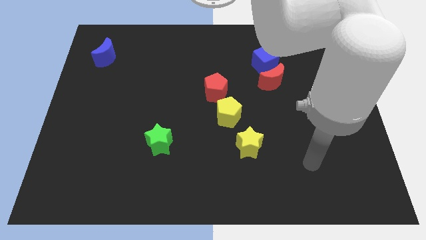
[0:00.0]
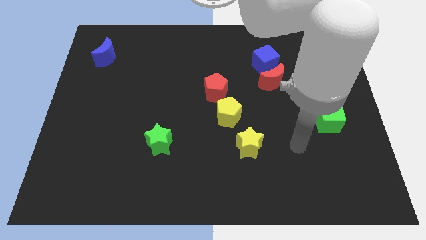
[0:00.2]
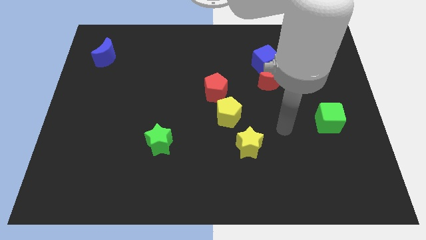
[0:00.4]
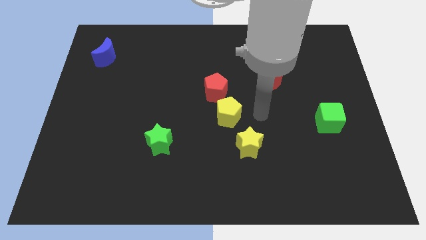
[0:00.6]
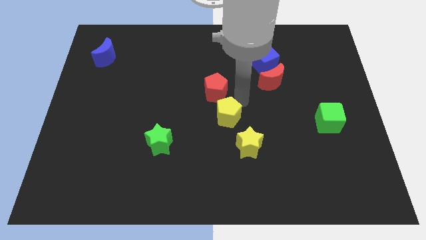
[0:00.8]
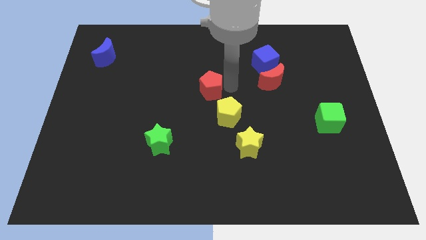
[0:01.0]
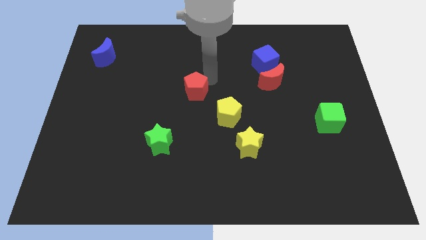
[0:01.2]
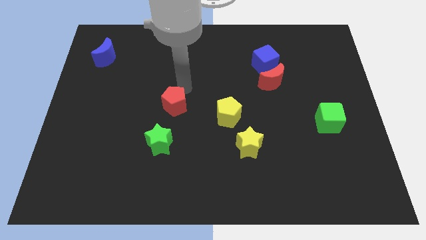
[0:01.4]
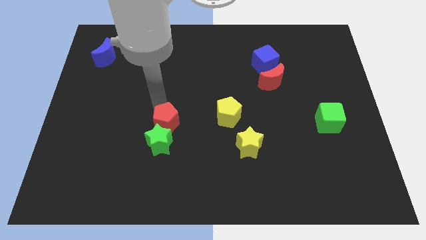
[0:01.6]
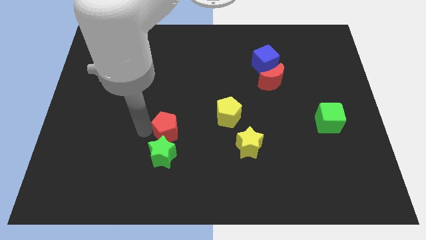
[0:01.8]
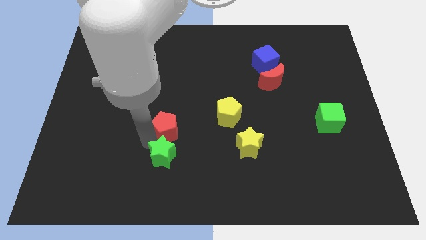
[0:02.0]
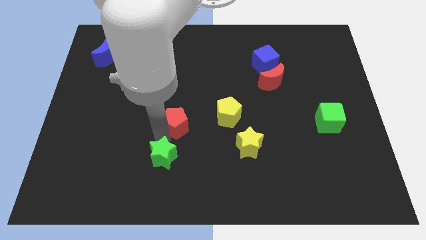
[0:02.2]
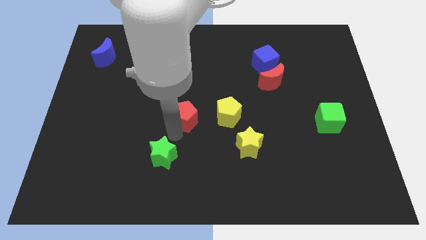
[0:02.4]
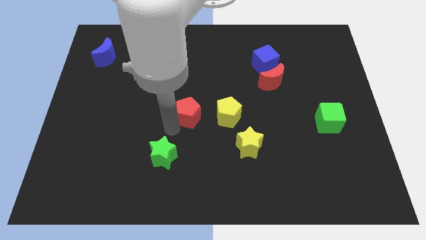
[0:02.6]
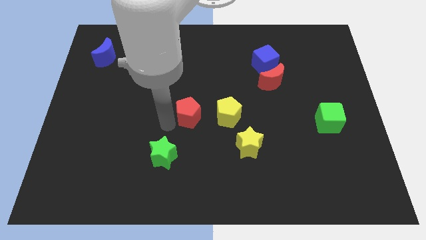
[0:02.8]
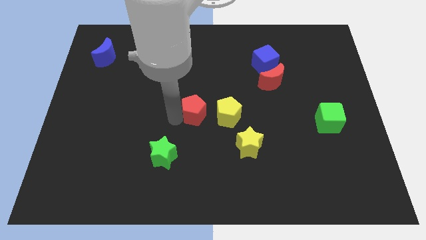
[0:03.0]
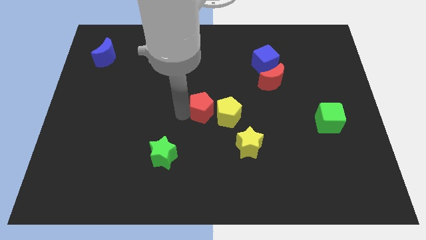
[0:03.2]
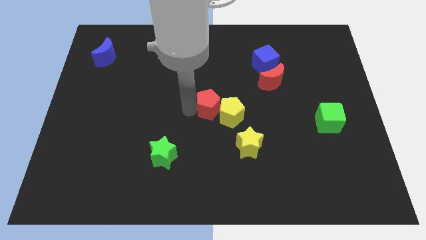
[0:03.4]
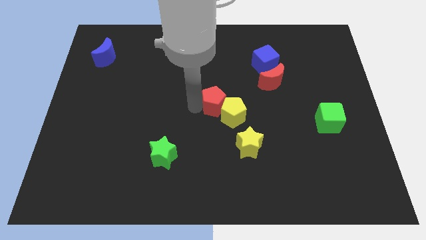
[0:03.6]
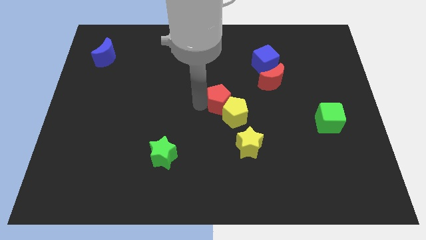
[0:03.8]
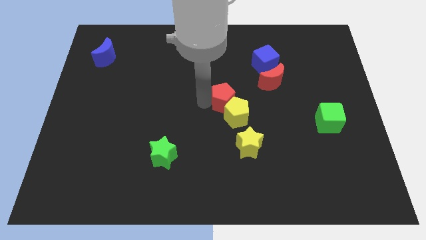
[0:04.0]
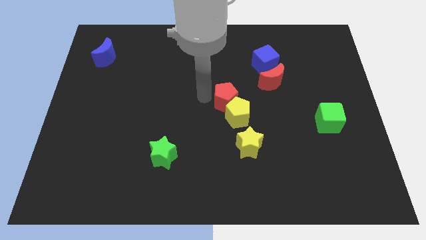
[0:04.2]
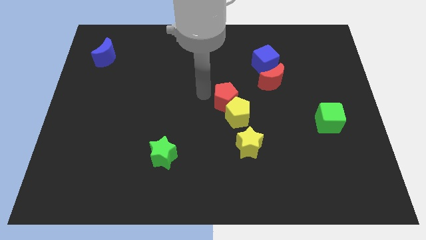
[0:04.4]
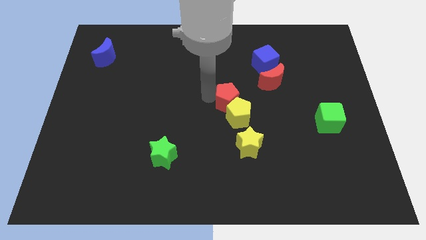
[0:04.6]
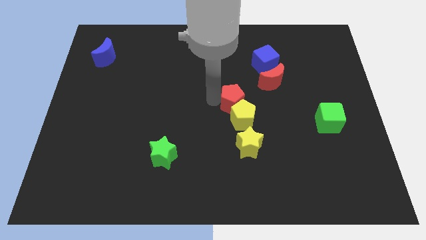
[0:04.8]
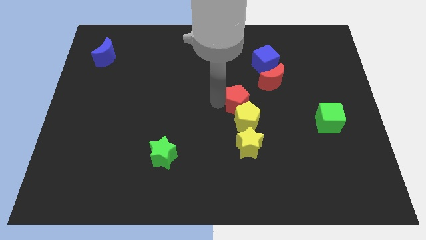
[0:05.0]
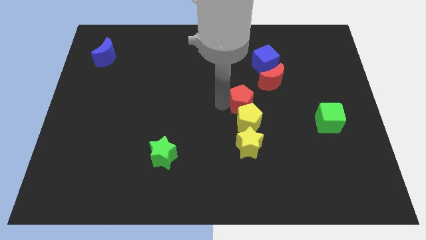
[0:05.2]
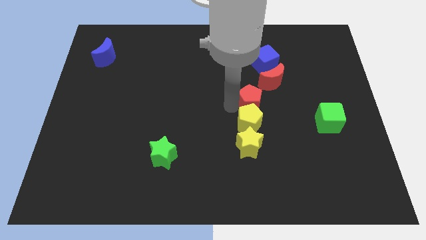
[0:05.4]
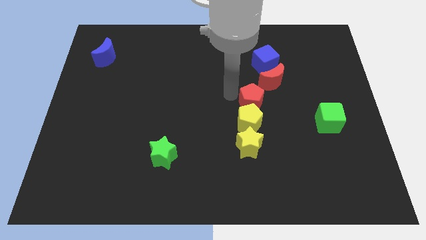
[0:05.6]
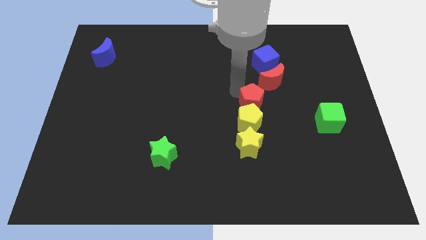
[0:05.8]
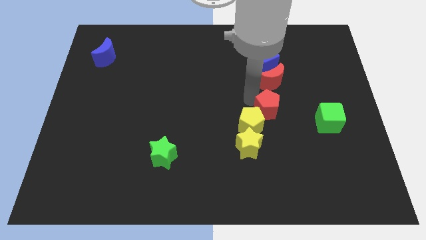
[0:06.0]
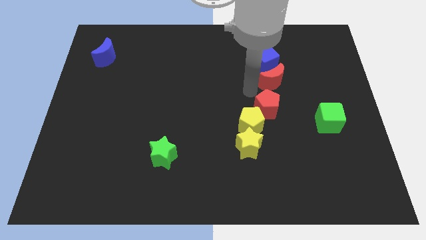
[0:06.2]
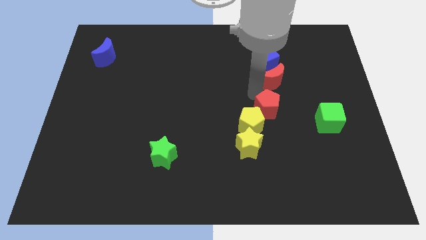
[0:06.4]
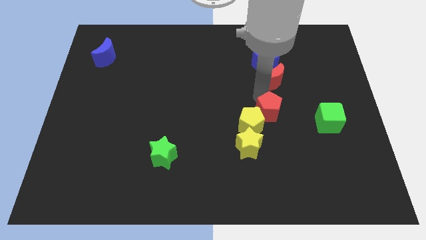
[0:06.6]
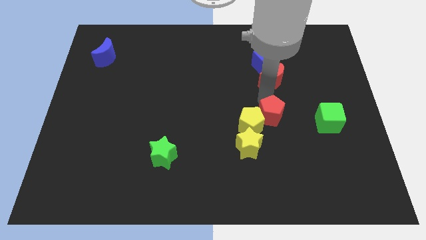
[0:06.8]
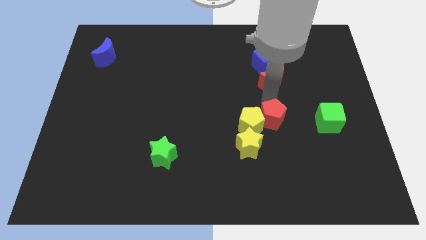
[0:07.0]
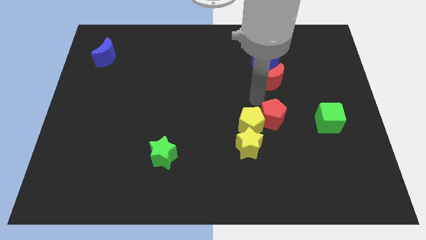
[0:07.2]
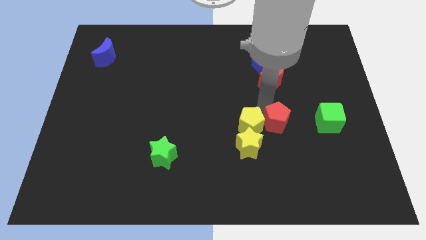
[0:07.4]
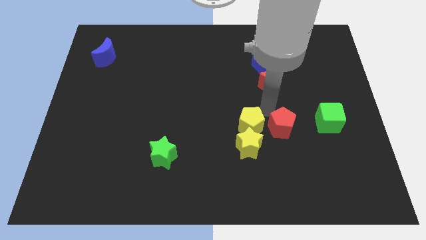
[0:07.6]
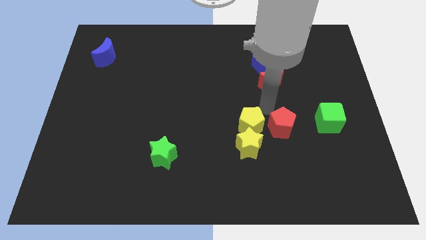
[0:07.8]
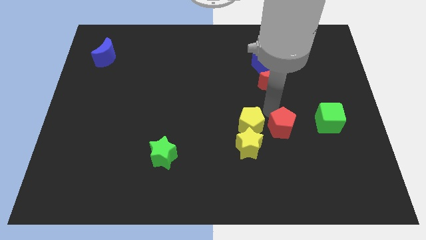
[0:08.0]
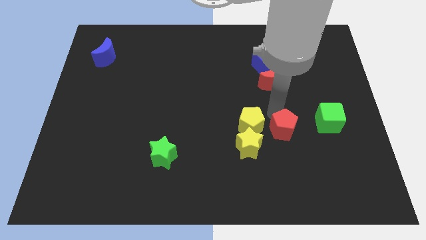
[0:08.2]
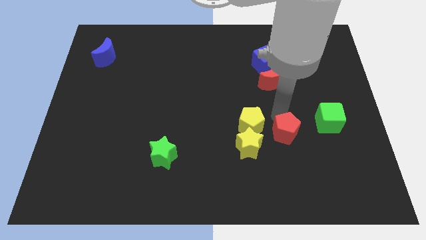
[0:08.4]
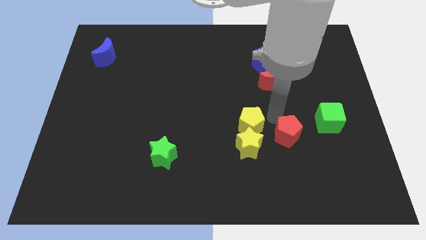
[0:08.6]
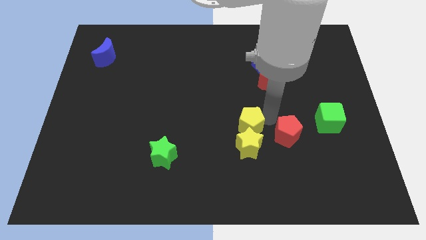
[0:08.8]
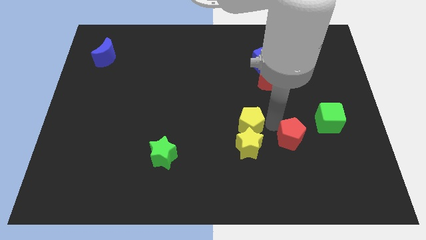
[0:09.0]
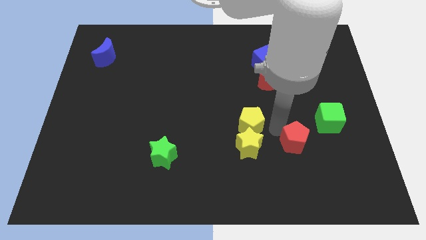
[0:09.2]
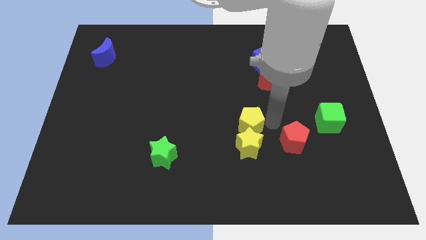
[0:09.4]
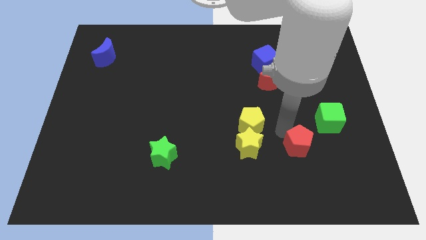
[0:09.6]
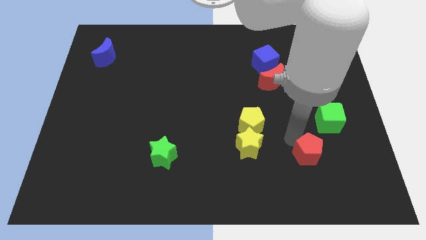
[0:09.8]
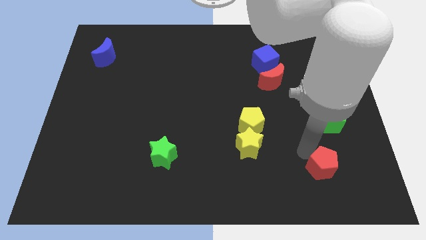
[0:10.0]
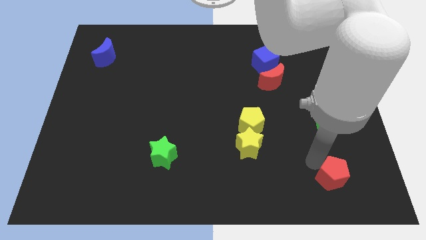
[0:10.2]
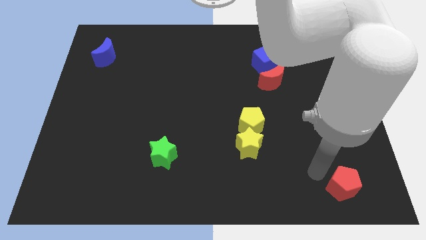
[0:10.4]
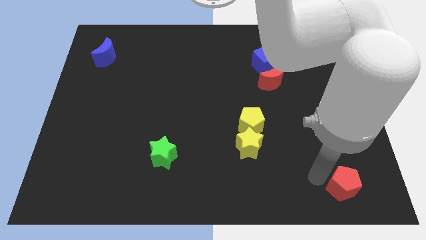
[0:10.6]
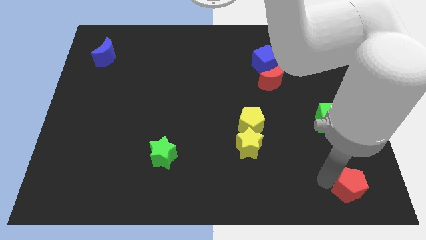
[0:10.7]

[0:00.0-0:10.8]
put the red pentagon to the bottom right of the board

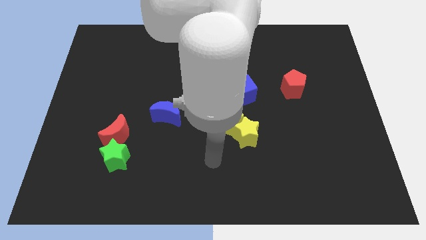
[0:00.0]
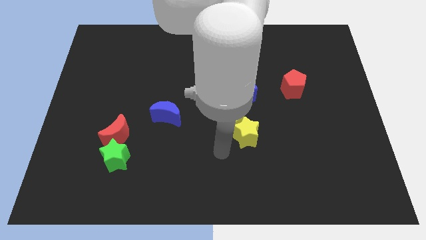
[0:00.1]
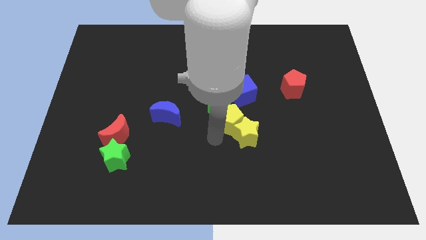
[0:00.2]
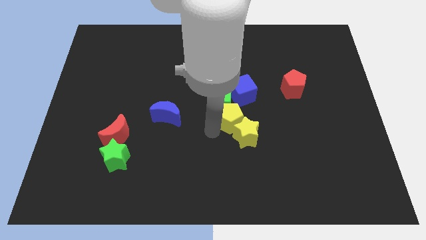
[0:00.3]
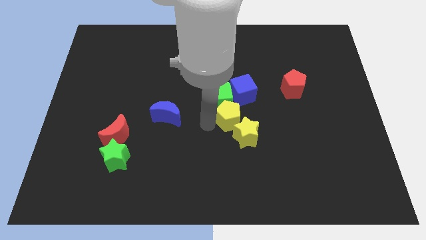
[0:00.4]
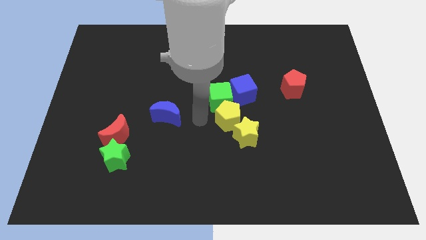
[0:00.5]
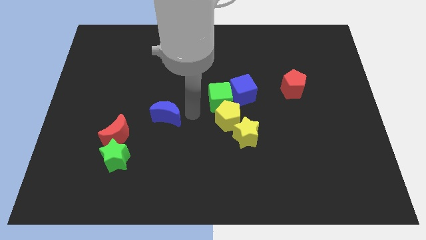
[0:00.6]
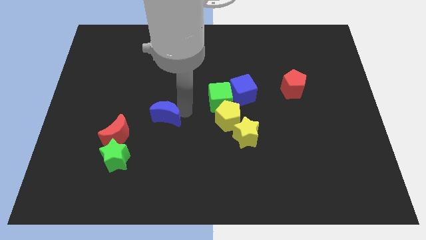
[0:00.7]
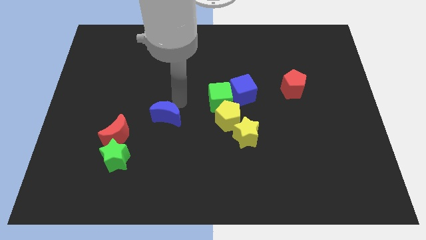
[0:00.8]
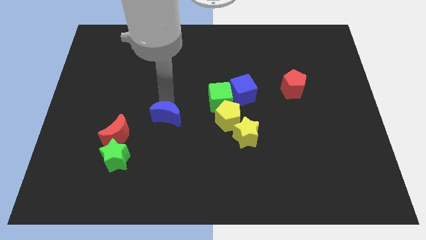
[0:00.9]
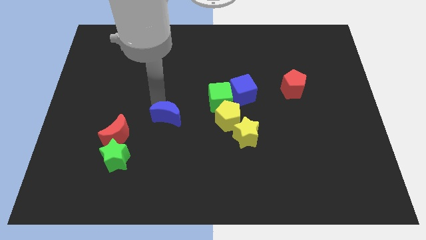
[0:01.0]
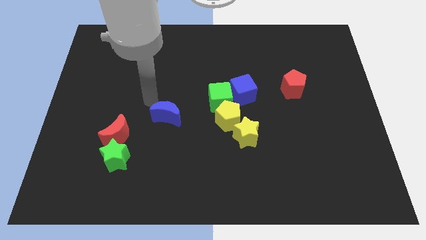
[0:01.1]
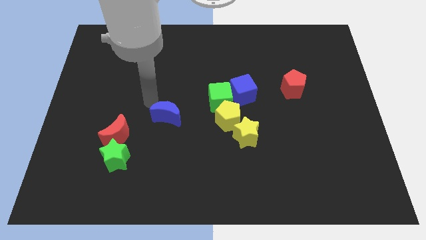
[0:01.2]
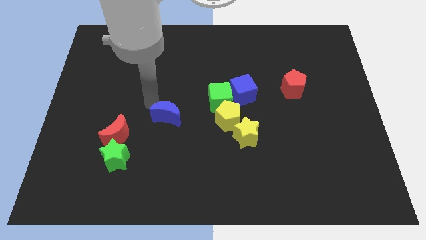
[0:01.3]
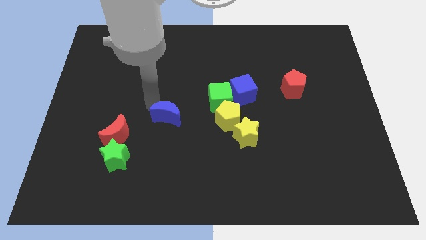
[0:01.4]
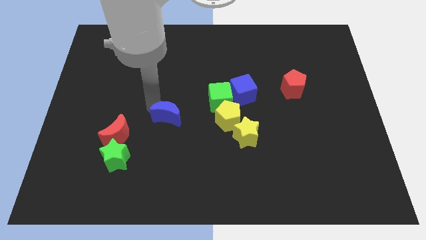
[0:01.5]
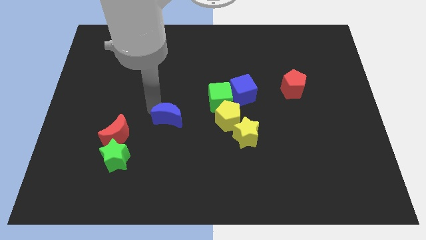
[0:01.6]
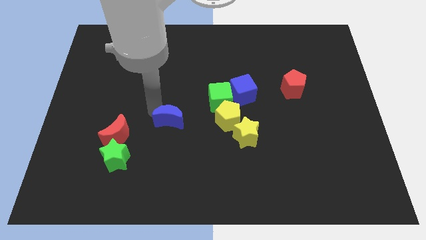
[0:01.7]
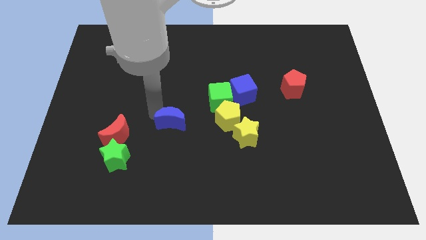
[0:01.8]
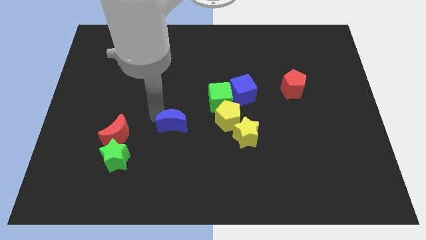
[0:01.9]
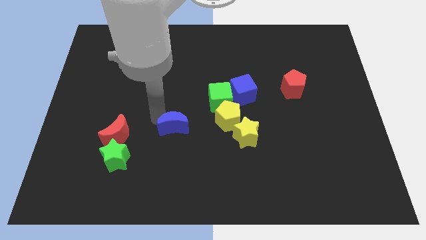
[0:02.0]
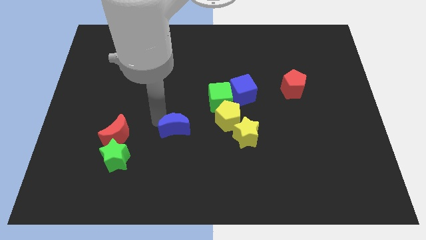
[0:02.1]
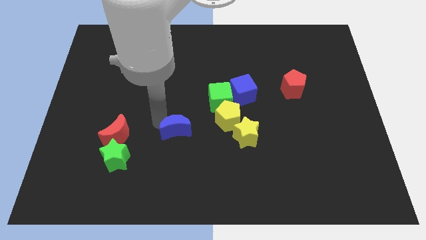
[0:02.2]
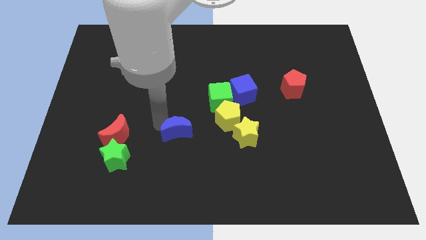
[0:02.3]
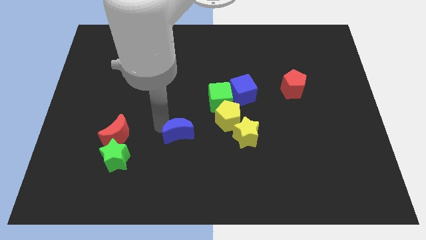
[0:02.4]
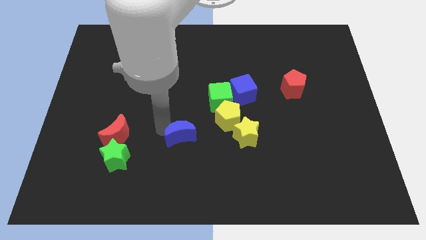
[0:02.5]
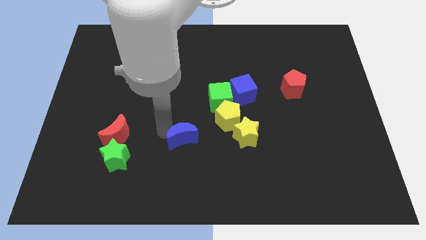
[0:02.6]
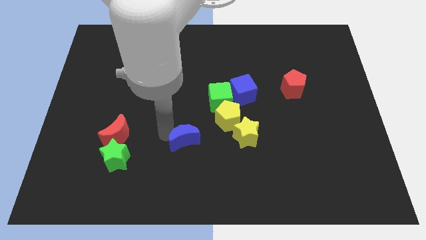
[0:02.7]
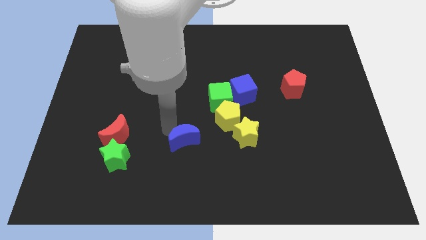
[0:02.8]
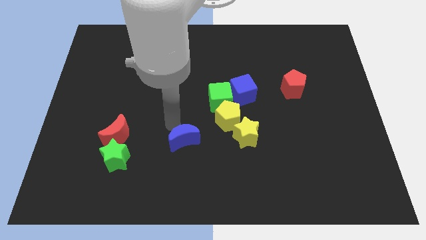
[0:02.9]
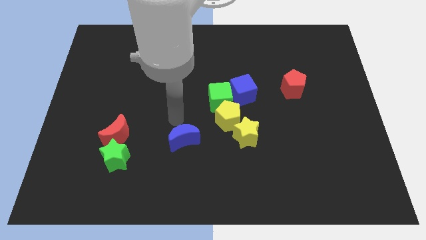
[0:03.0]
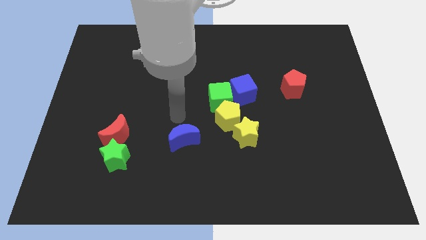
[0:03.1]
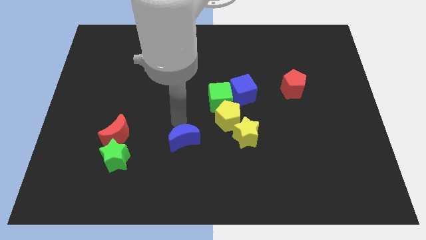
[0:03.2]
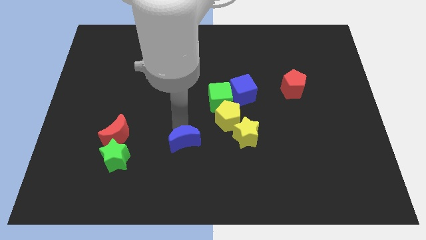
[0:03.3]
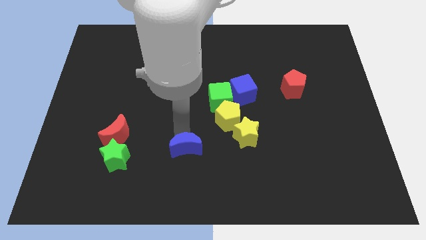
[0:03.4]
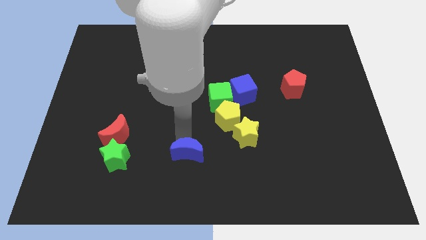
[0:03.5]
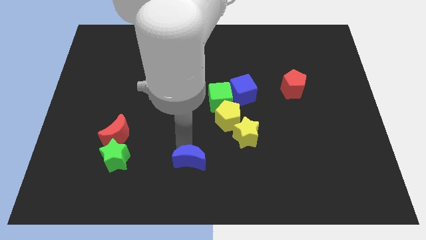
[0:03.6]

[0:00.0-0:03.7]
slide the blue moon to the bottom
